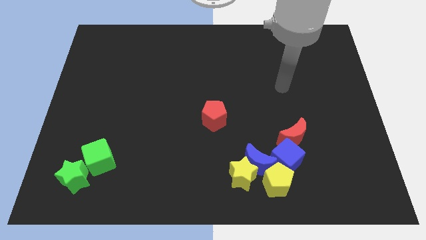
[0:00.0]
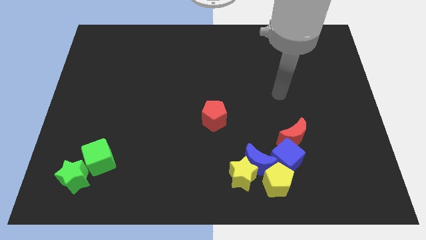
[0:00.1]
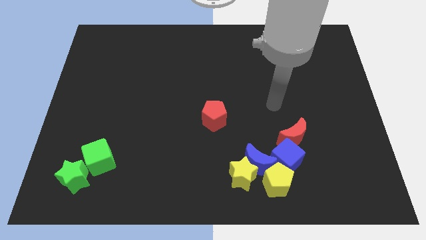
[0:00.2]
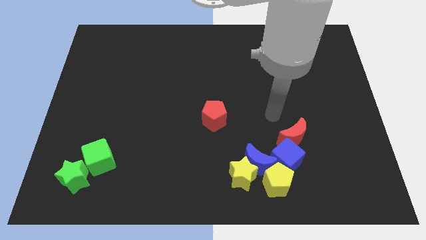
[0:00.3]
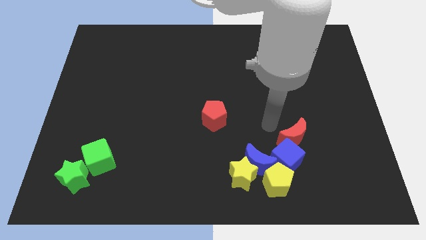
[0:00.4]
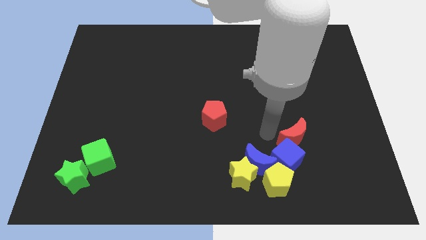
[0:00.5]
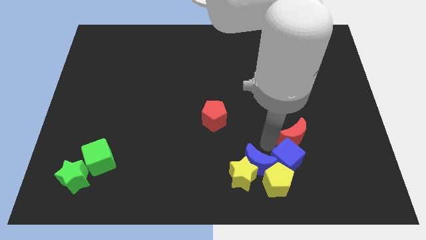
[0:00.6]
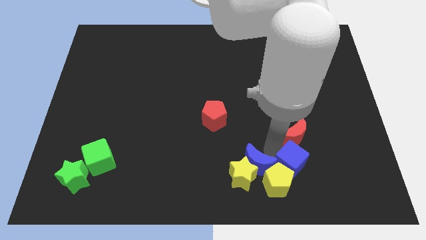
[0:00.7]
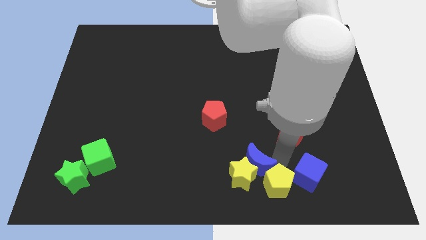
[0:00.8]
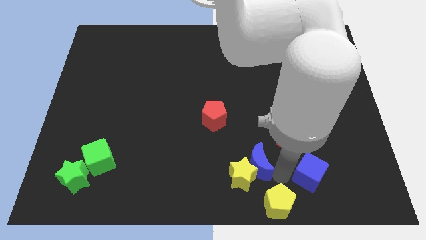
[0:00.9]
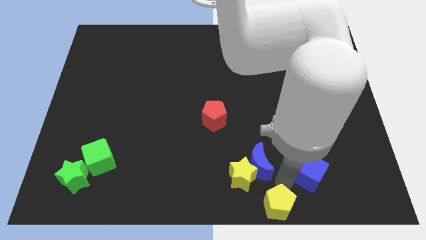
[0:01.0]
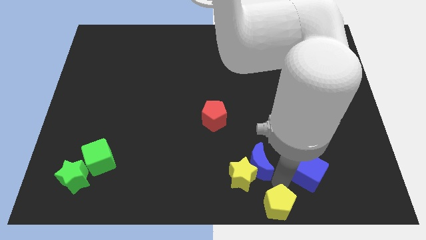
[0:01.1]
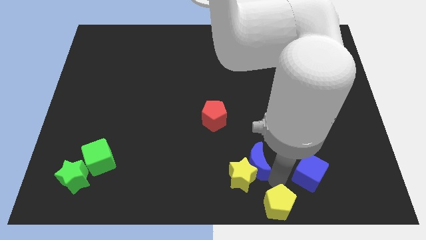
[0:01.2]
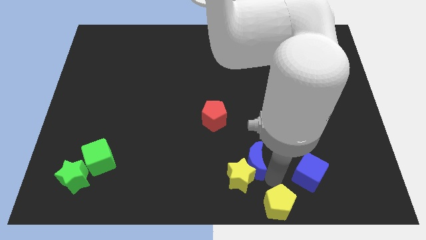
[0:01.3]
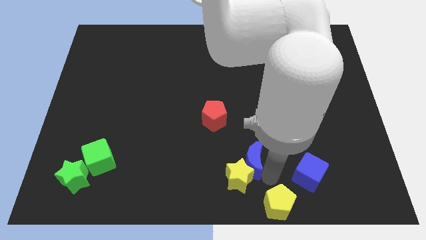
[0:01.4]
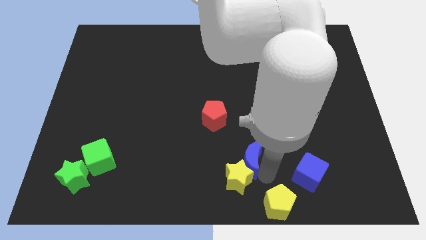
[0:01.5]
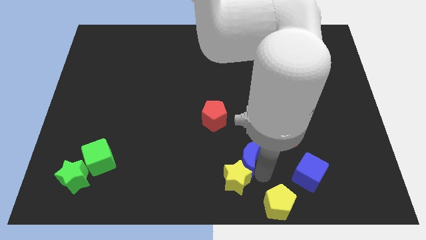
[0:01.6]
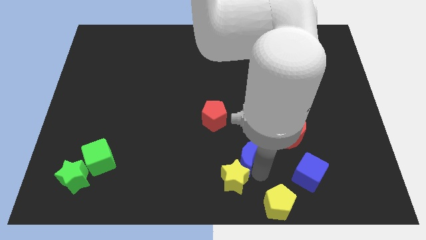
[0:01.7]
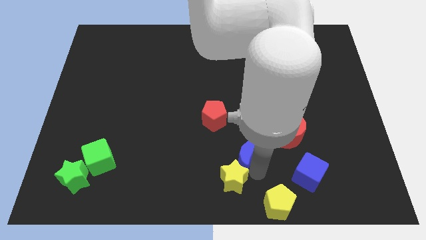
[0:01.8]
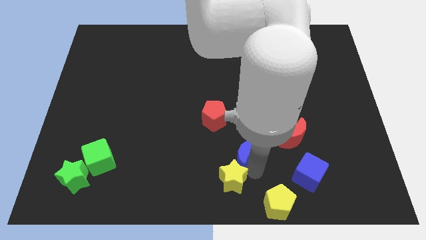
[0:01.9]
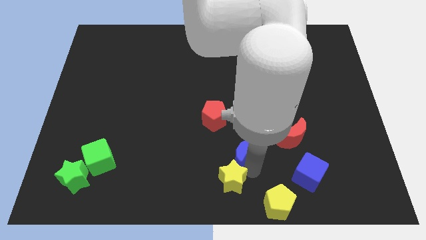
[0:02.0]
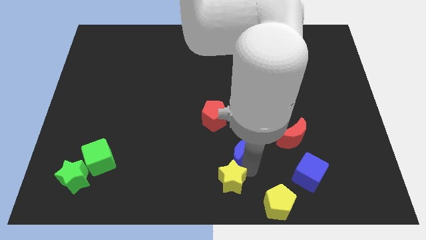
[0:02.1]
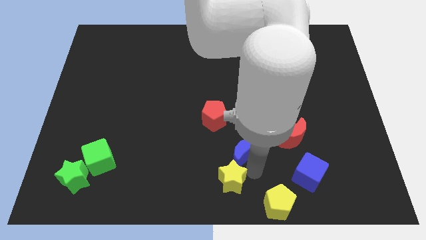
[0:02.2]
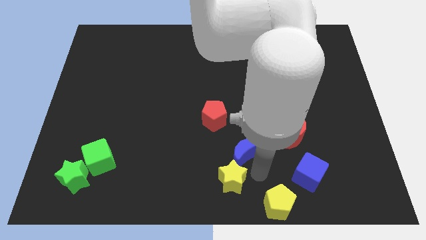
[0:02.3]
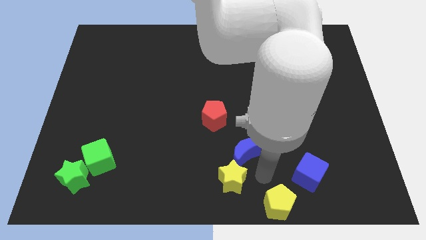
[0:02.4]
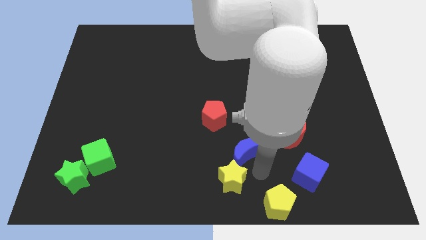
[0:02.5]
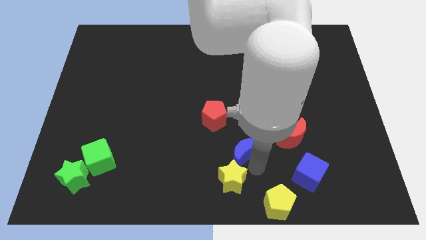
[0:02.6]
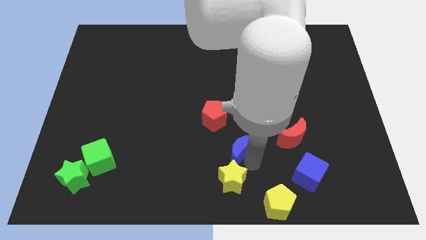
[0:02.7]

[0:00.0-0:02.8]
pull the blue moon apart from the yellow star, yellow pentagon, and blue cube

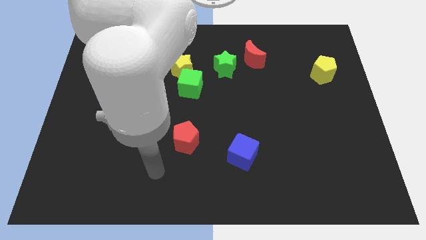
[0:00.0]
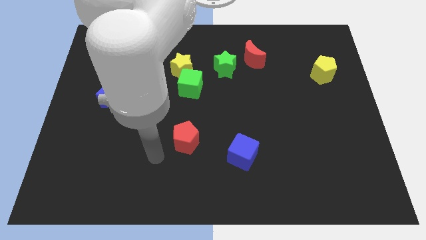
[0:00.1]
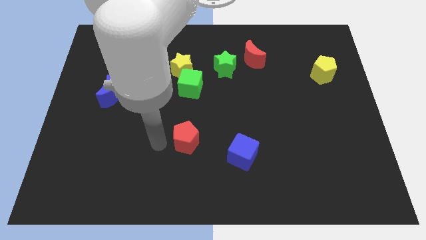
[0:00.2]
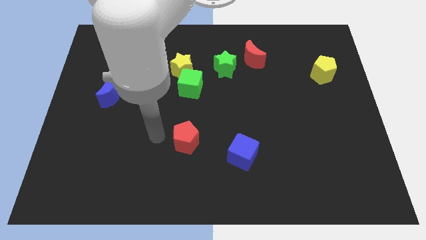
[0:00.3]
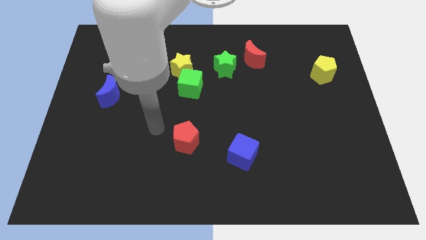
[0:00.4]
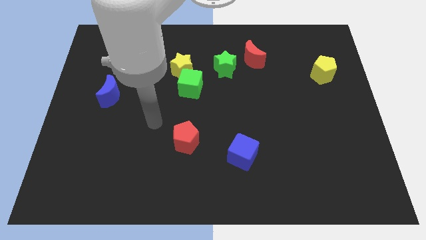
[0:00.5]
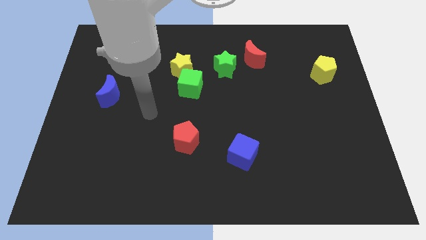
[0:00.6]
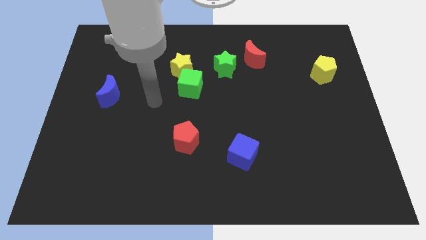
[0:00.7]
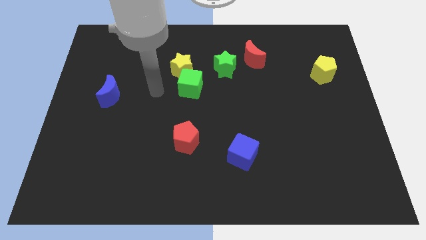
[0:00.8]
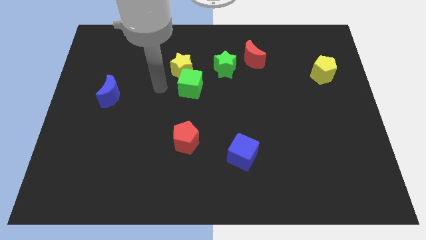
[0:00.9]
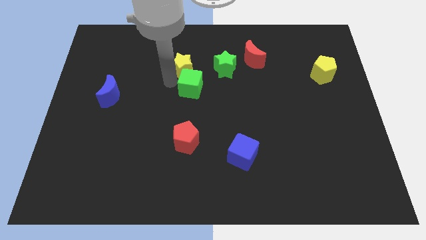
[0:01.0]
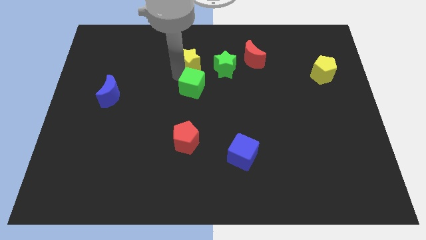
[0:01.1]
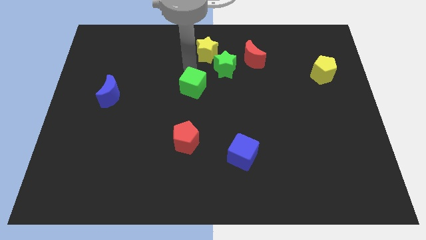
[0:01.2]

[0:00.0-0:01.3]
move the green cube away from the yellow star

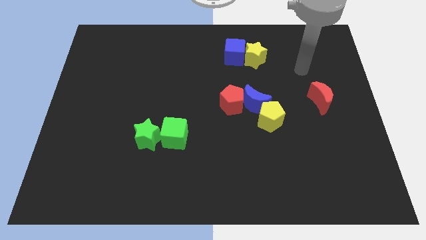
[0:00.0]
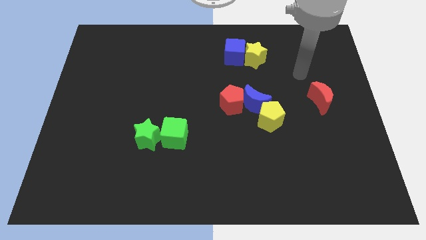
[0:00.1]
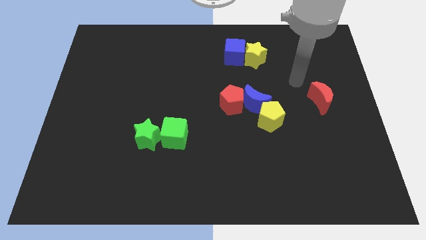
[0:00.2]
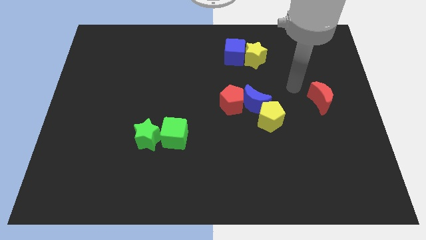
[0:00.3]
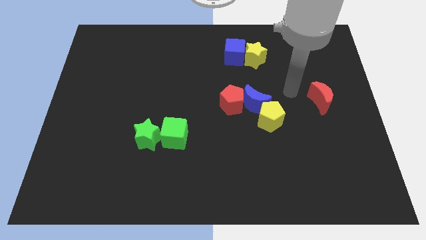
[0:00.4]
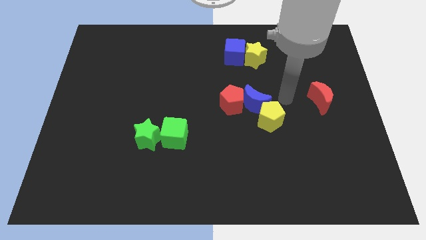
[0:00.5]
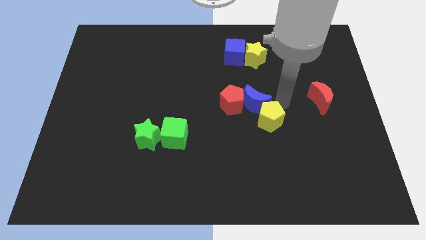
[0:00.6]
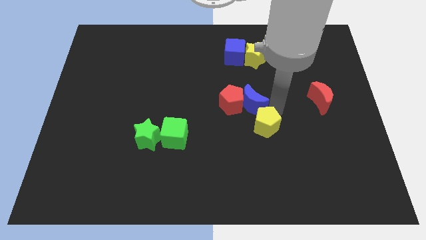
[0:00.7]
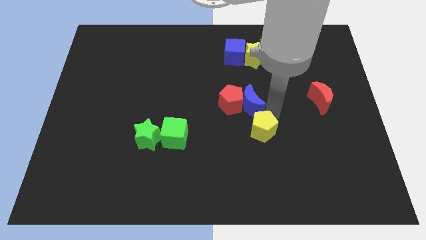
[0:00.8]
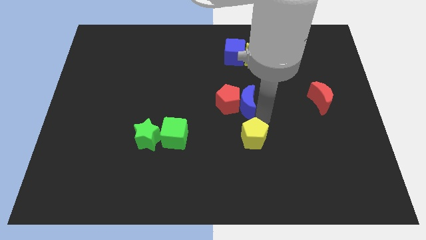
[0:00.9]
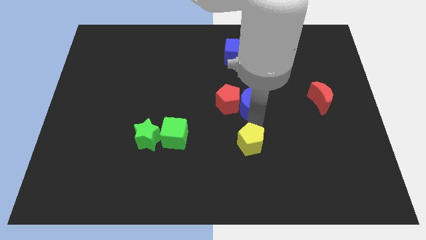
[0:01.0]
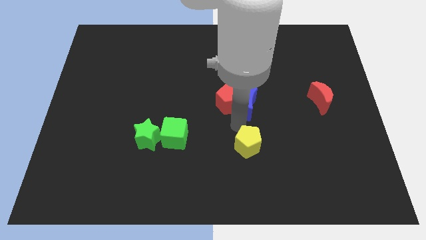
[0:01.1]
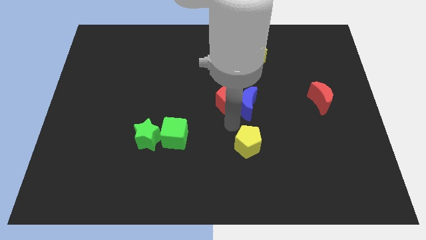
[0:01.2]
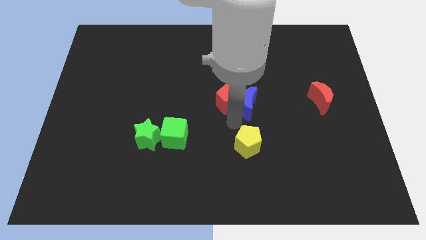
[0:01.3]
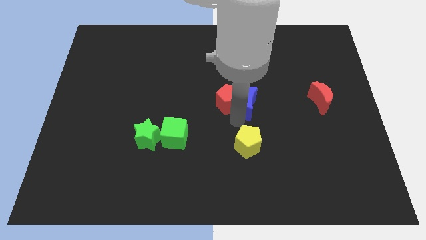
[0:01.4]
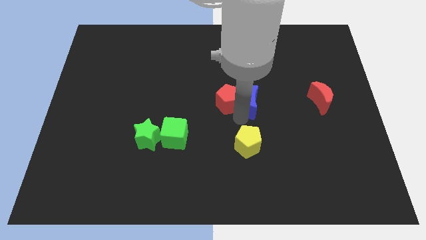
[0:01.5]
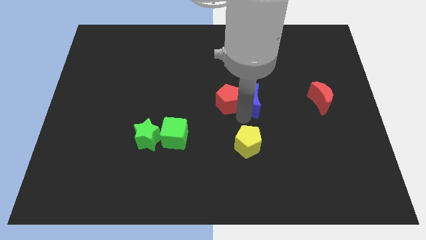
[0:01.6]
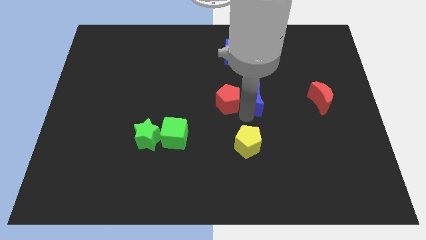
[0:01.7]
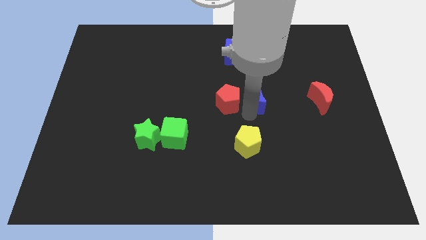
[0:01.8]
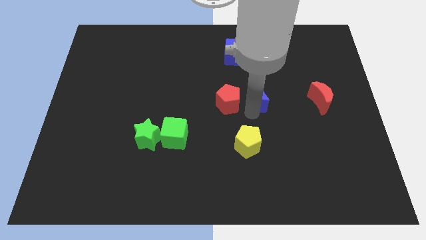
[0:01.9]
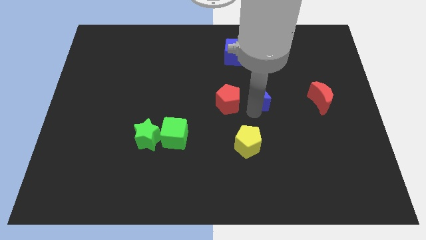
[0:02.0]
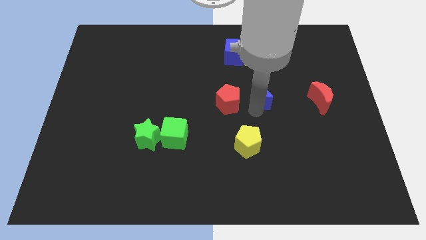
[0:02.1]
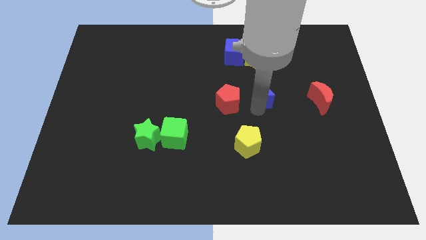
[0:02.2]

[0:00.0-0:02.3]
move the blue moon away from the red pentagon and yellow pentagon

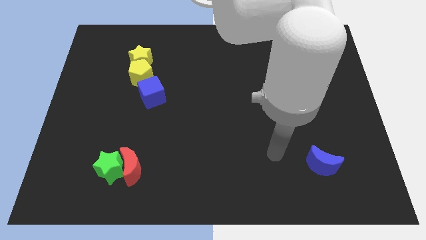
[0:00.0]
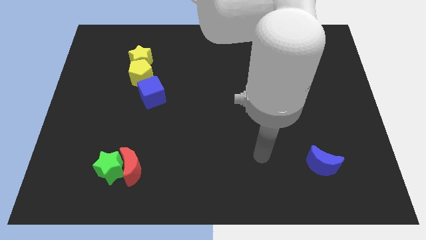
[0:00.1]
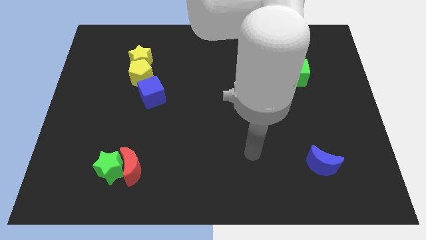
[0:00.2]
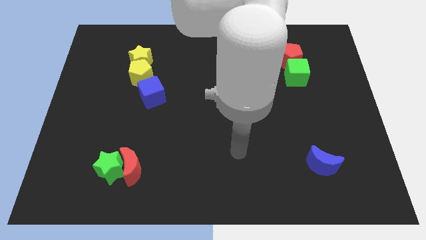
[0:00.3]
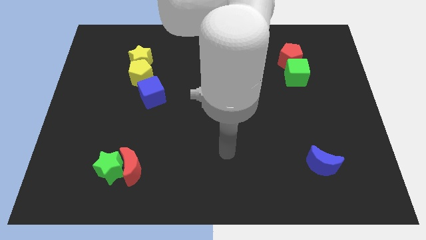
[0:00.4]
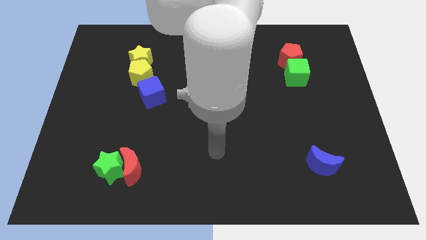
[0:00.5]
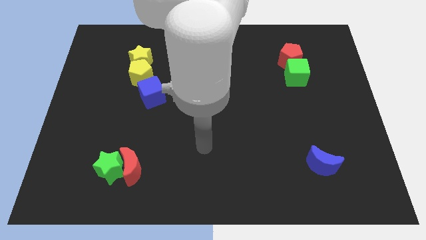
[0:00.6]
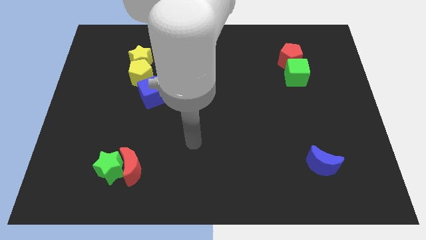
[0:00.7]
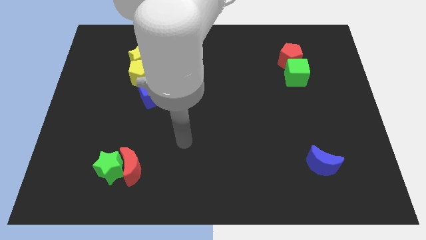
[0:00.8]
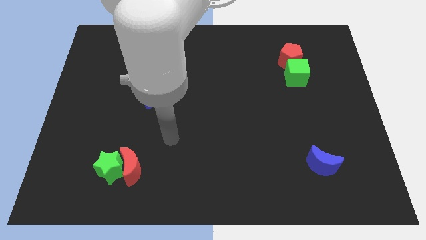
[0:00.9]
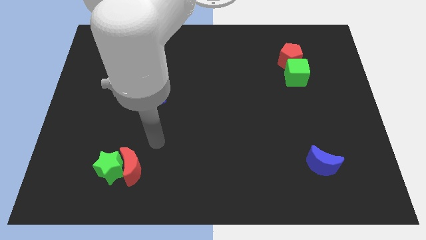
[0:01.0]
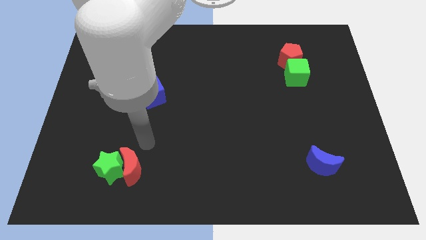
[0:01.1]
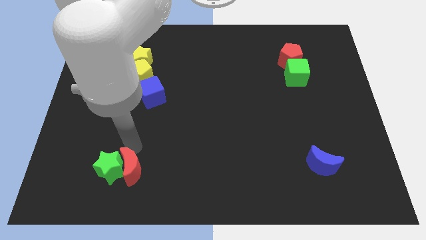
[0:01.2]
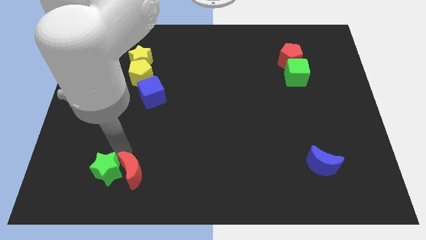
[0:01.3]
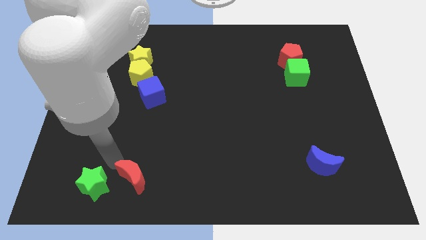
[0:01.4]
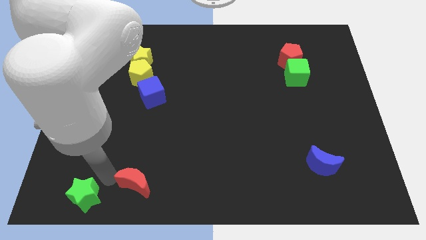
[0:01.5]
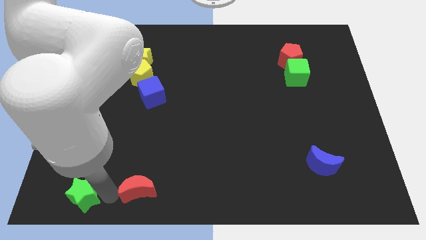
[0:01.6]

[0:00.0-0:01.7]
separate the red moon from the green star

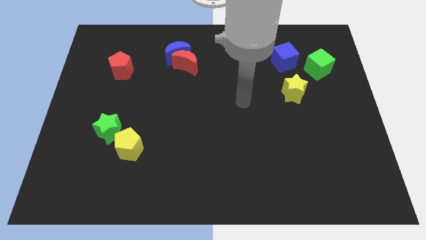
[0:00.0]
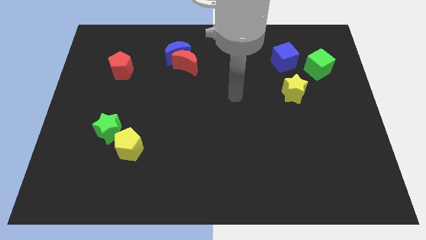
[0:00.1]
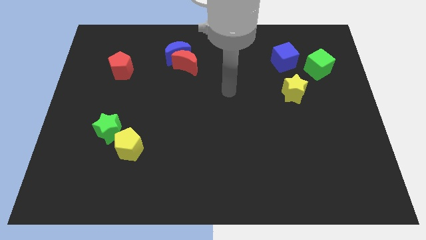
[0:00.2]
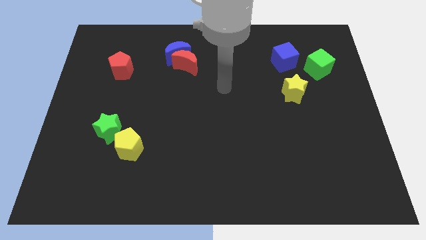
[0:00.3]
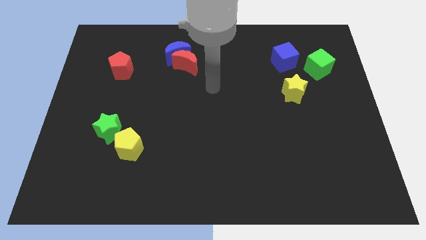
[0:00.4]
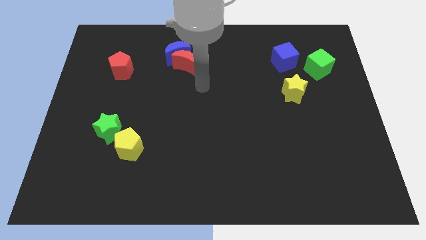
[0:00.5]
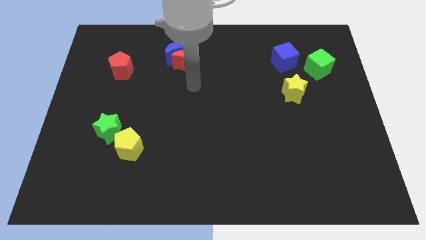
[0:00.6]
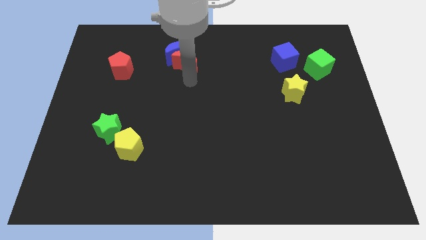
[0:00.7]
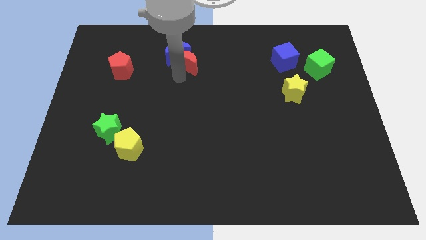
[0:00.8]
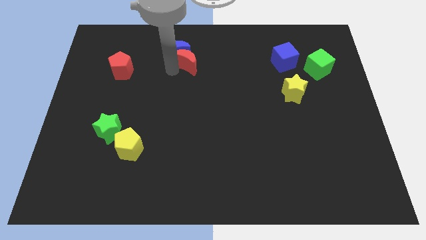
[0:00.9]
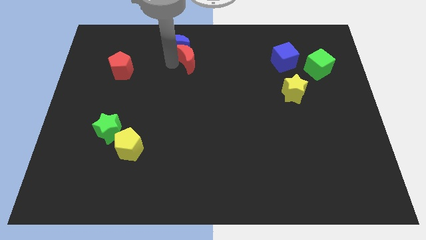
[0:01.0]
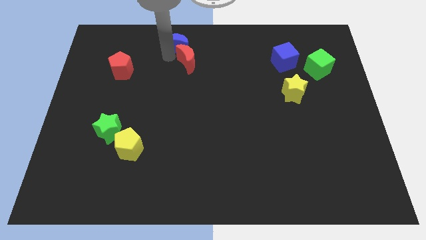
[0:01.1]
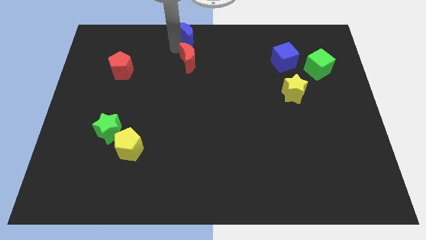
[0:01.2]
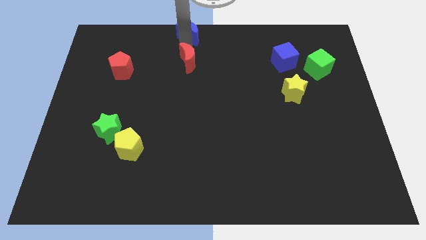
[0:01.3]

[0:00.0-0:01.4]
move the red moon away from the blue moon
